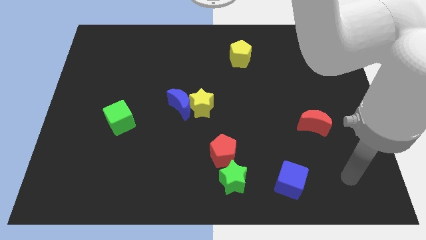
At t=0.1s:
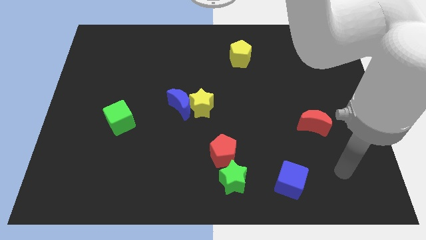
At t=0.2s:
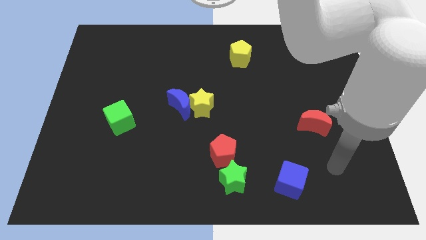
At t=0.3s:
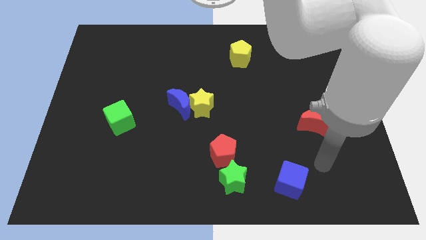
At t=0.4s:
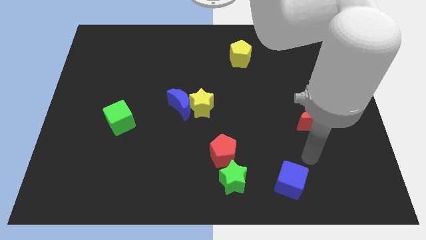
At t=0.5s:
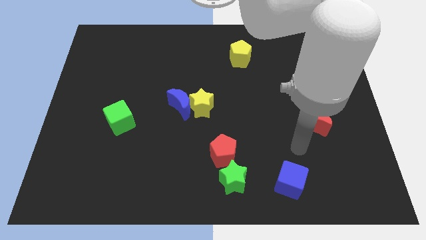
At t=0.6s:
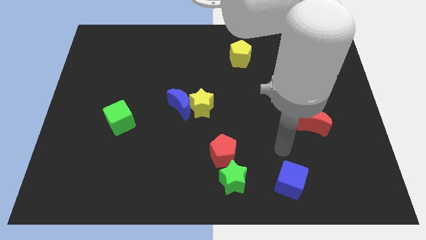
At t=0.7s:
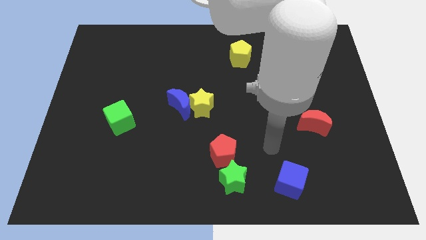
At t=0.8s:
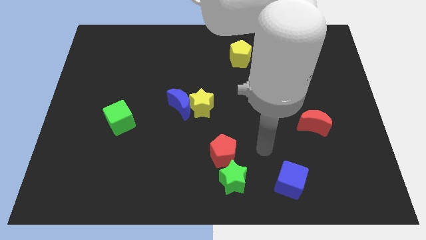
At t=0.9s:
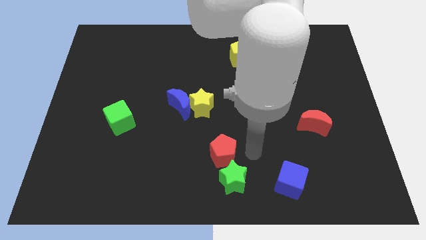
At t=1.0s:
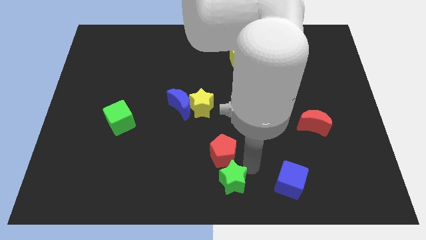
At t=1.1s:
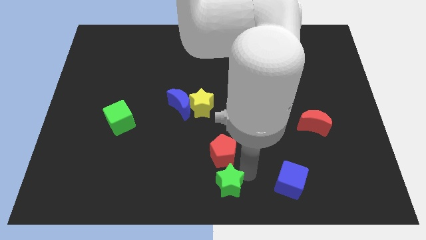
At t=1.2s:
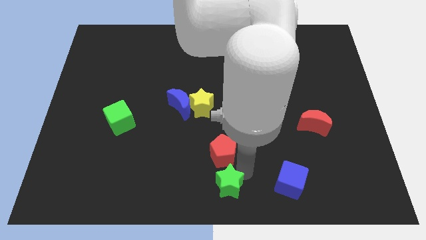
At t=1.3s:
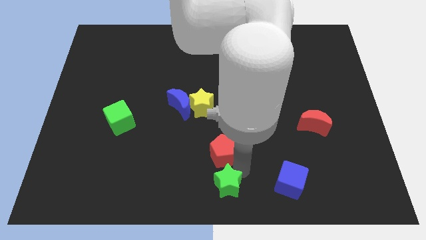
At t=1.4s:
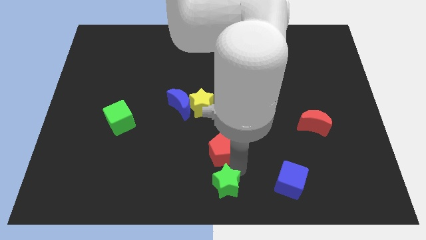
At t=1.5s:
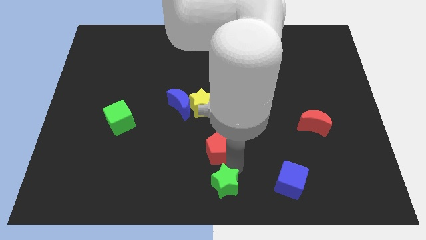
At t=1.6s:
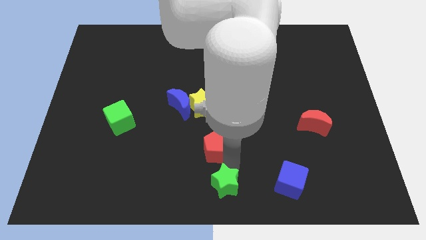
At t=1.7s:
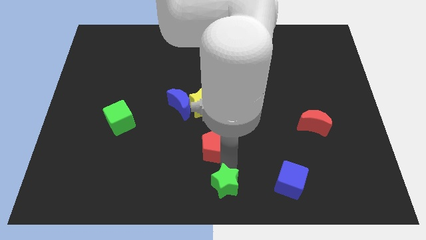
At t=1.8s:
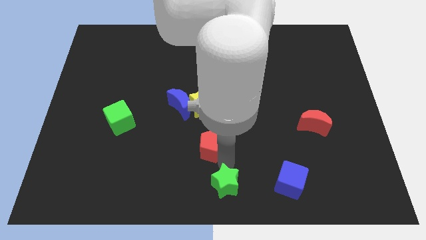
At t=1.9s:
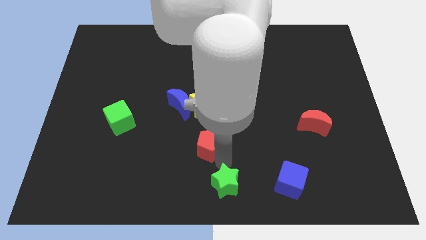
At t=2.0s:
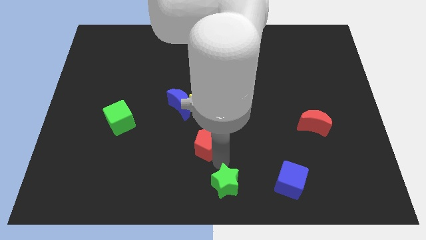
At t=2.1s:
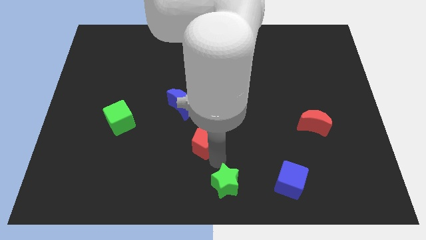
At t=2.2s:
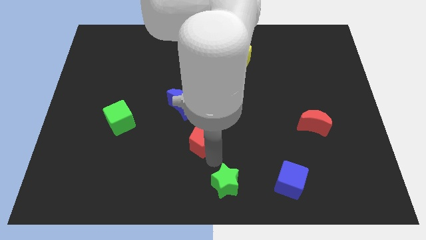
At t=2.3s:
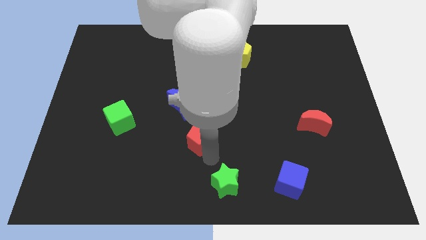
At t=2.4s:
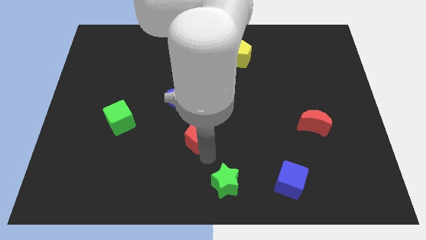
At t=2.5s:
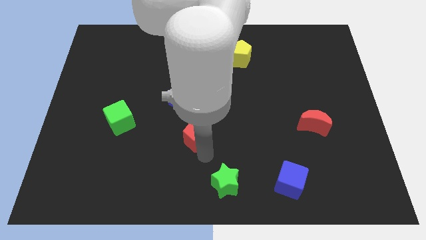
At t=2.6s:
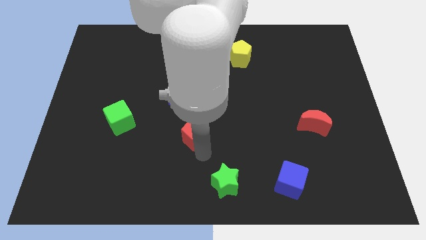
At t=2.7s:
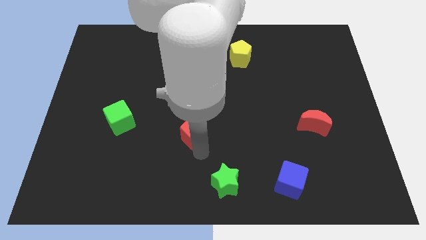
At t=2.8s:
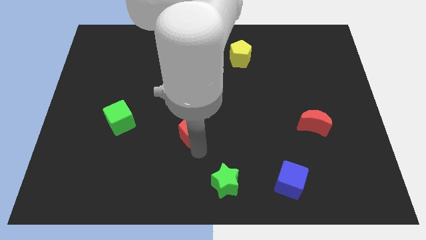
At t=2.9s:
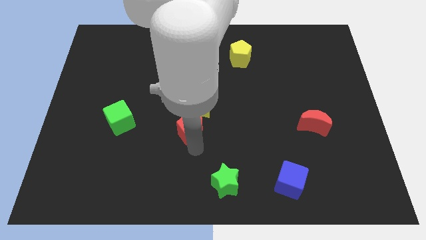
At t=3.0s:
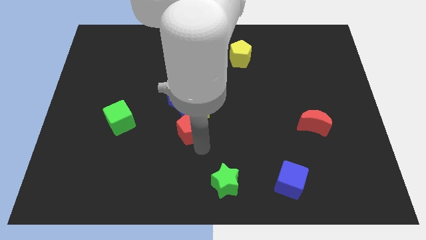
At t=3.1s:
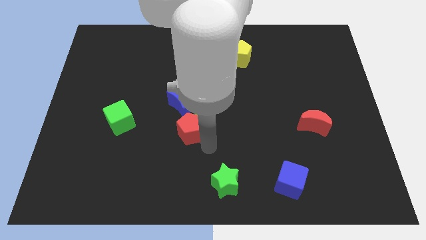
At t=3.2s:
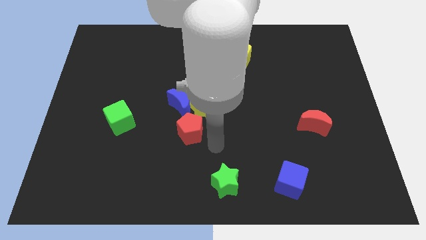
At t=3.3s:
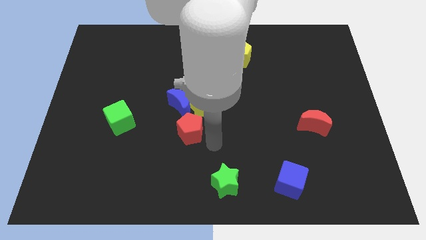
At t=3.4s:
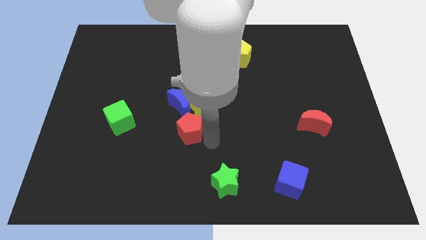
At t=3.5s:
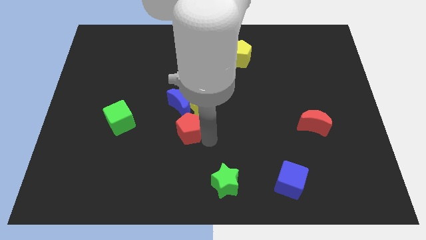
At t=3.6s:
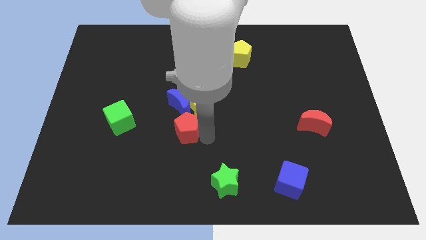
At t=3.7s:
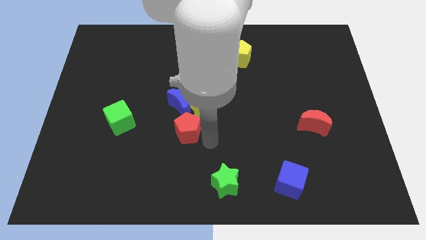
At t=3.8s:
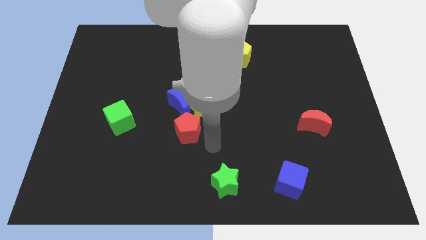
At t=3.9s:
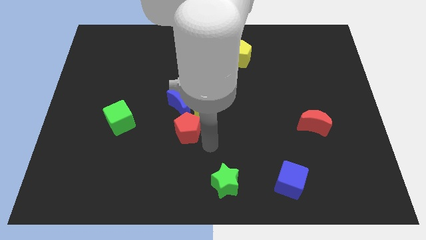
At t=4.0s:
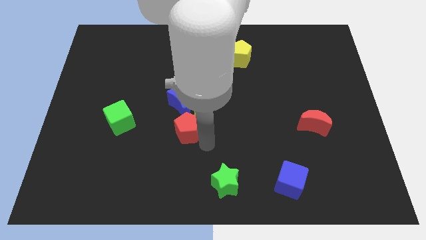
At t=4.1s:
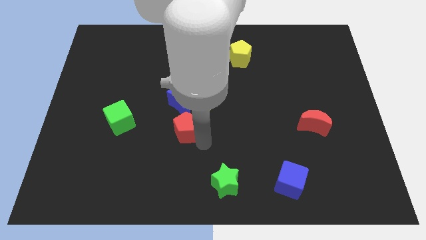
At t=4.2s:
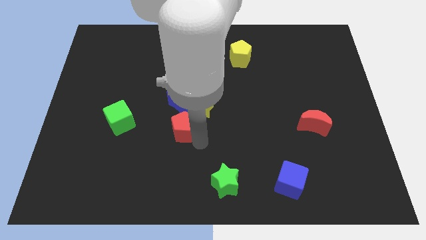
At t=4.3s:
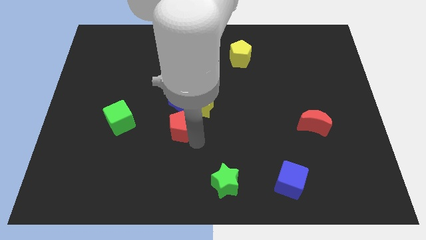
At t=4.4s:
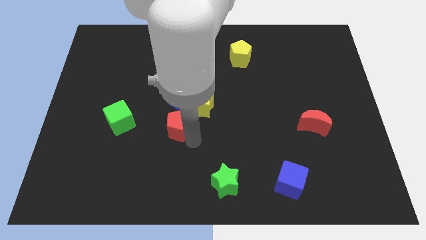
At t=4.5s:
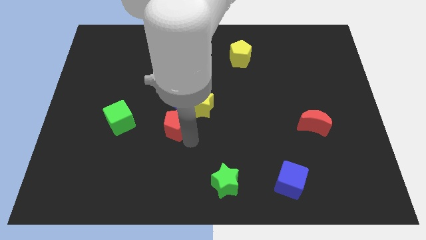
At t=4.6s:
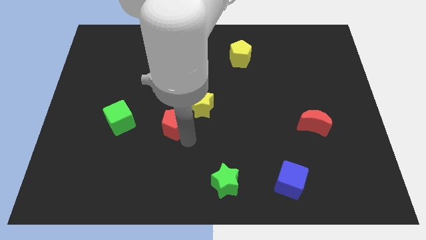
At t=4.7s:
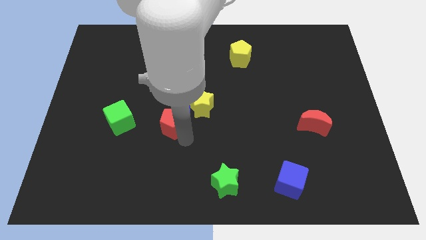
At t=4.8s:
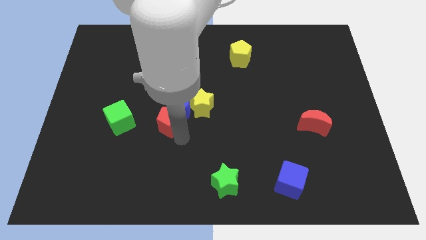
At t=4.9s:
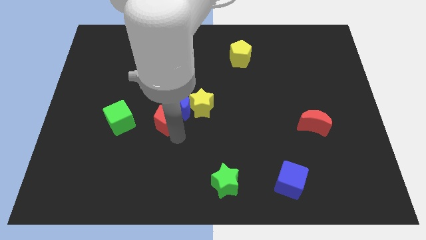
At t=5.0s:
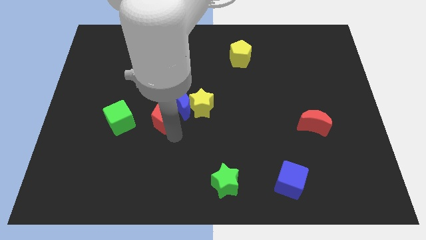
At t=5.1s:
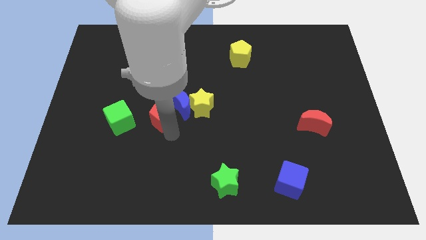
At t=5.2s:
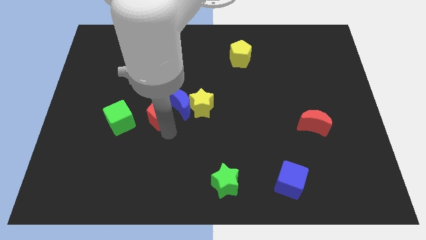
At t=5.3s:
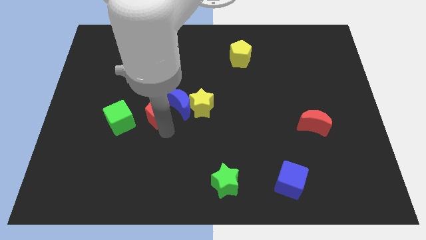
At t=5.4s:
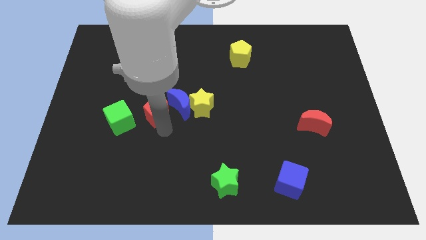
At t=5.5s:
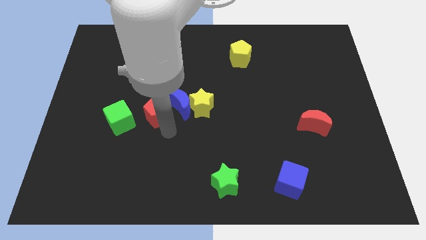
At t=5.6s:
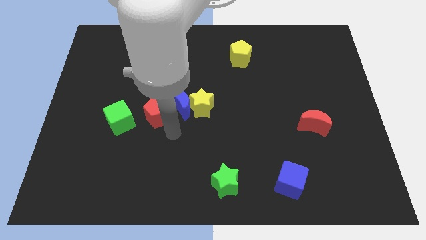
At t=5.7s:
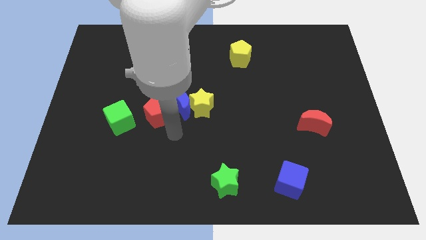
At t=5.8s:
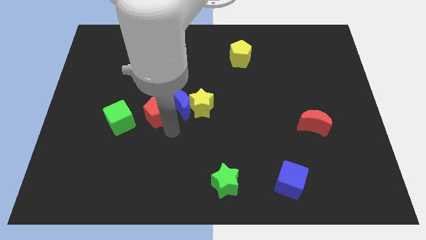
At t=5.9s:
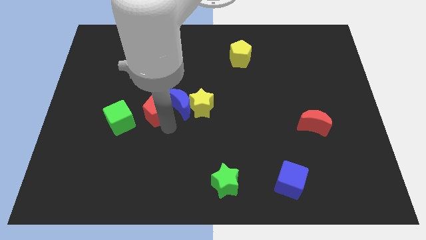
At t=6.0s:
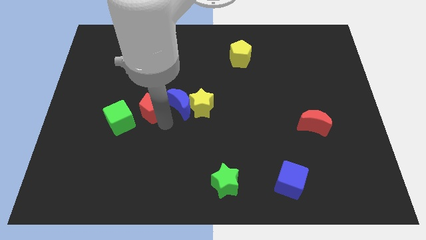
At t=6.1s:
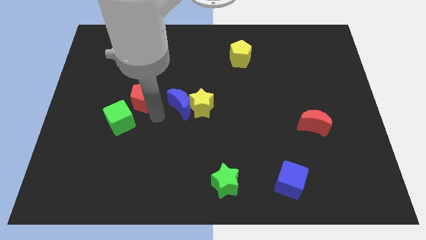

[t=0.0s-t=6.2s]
move the red pentagon upwards and then to the left

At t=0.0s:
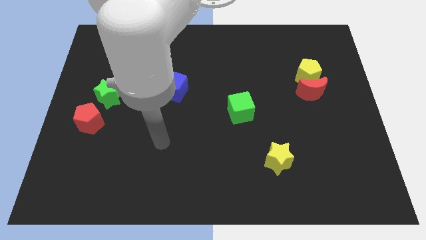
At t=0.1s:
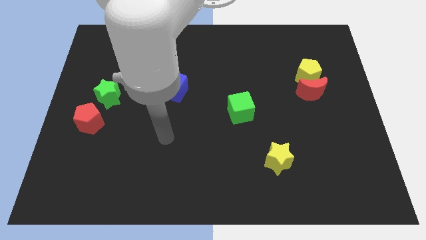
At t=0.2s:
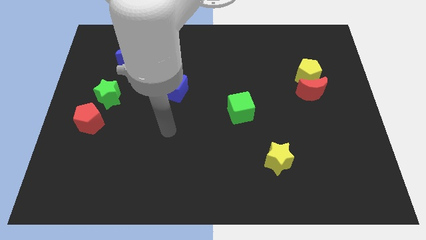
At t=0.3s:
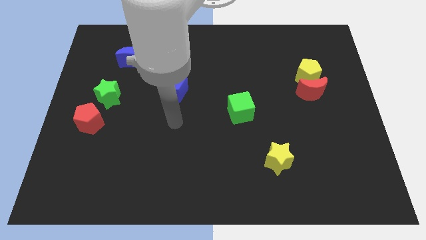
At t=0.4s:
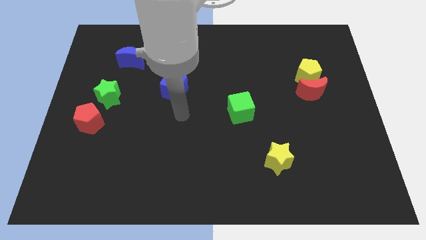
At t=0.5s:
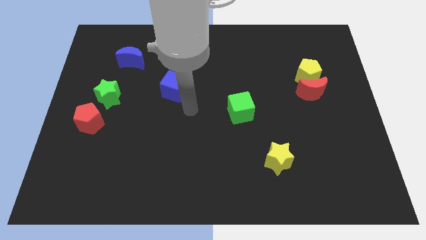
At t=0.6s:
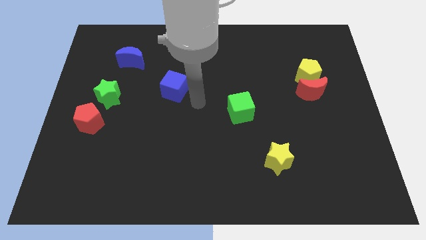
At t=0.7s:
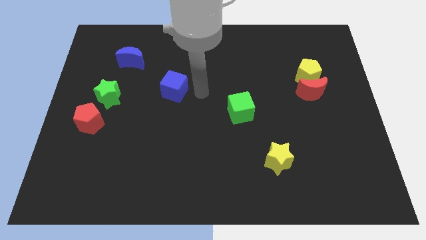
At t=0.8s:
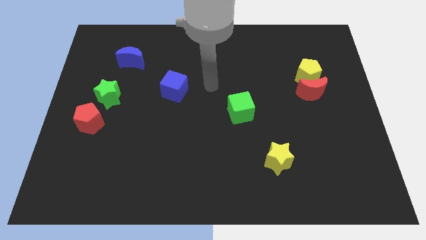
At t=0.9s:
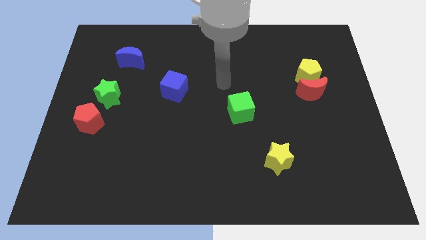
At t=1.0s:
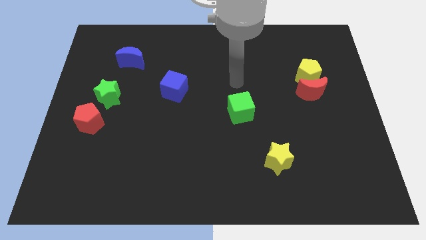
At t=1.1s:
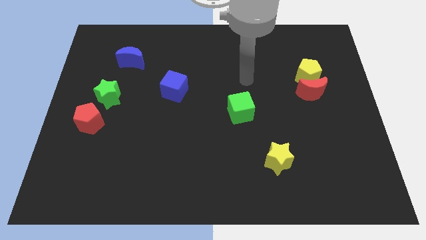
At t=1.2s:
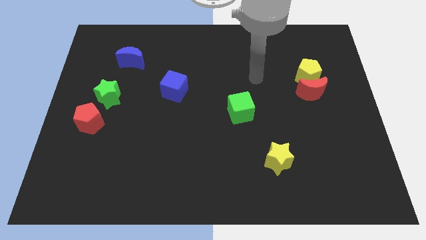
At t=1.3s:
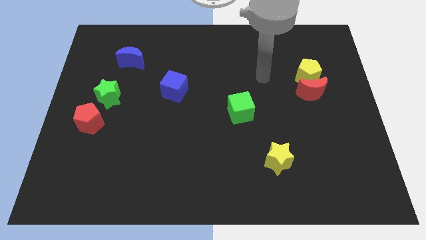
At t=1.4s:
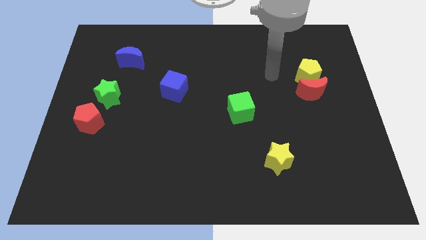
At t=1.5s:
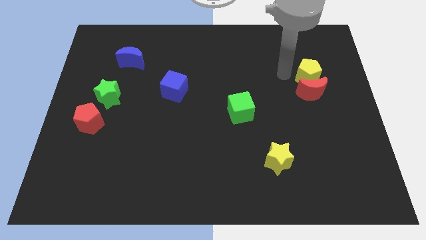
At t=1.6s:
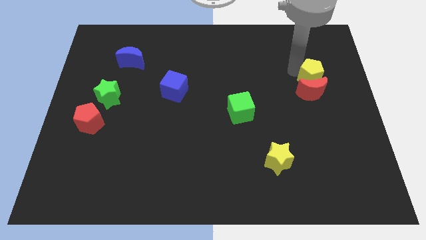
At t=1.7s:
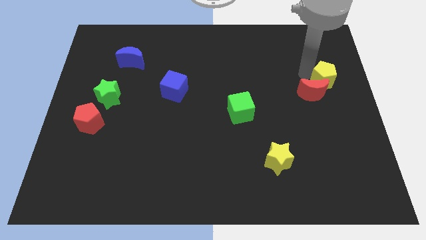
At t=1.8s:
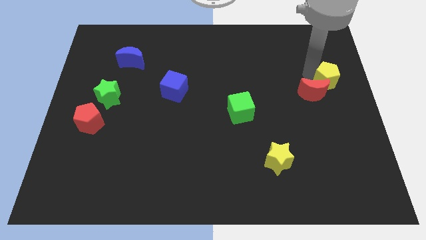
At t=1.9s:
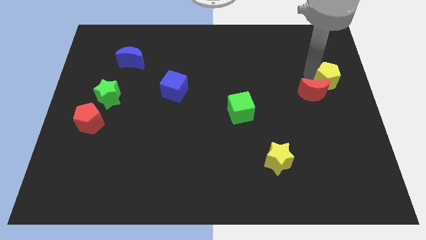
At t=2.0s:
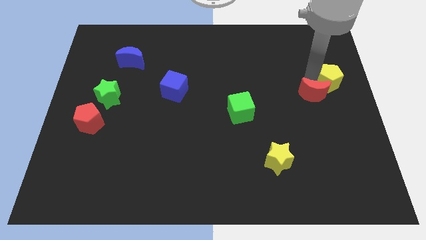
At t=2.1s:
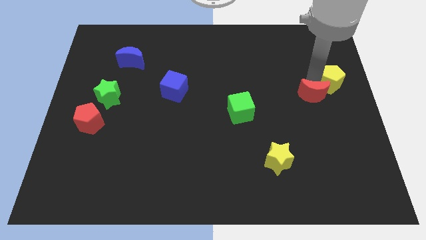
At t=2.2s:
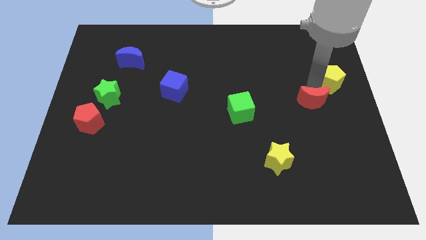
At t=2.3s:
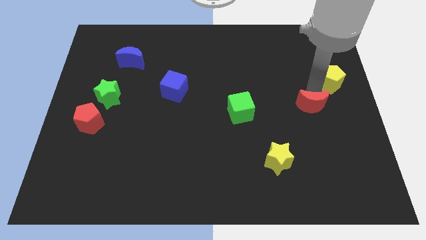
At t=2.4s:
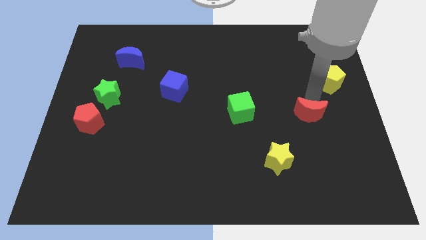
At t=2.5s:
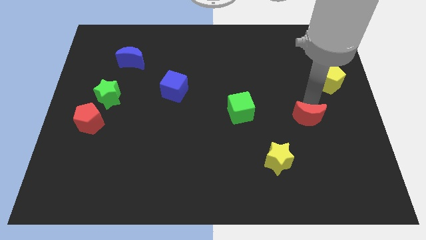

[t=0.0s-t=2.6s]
push the red moon down a bit
